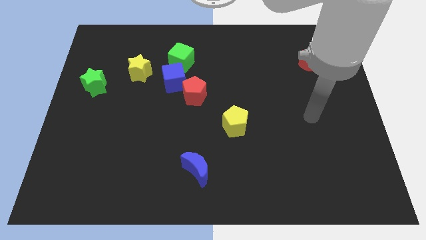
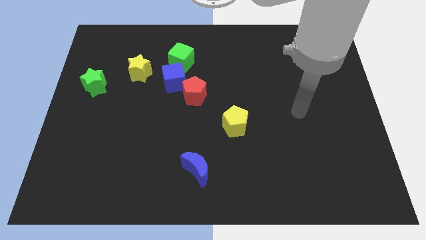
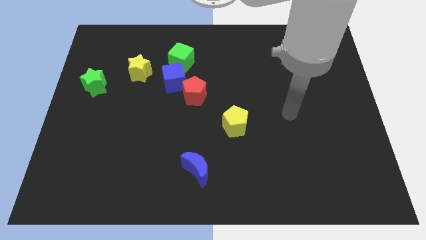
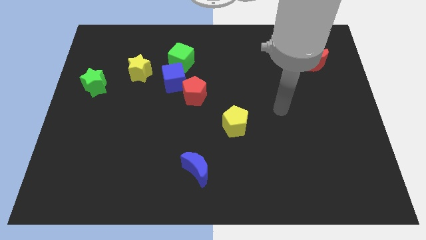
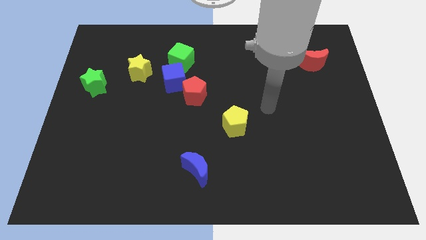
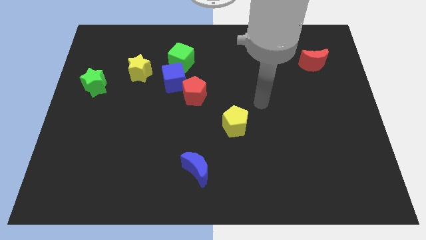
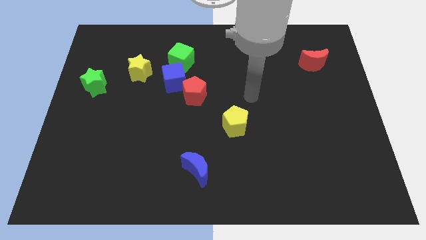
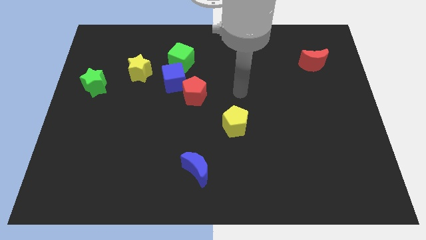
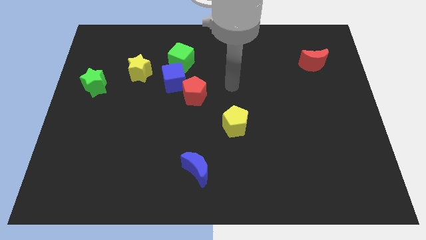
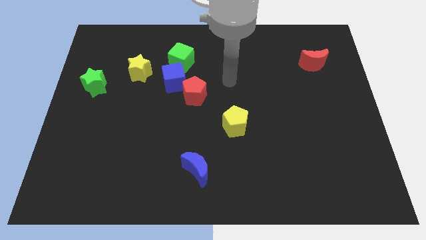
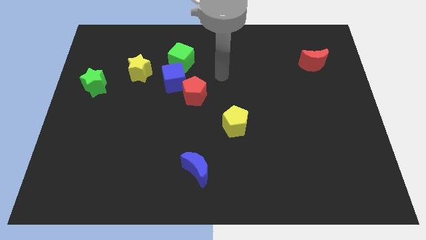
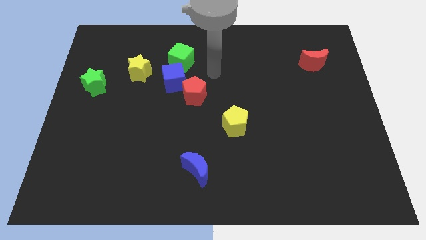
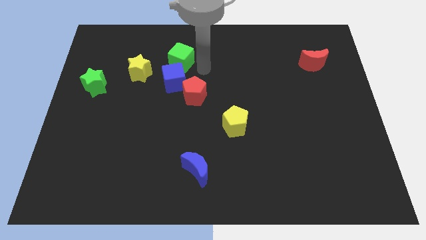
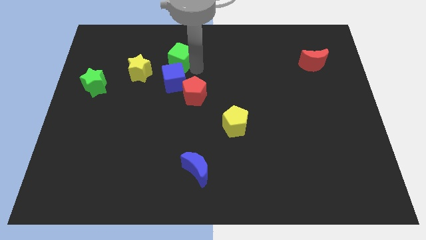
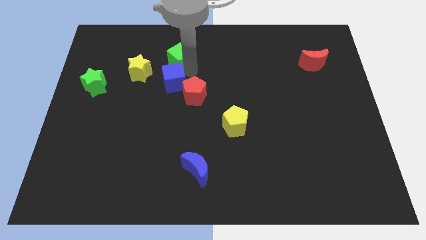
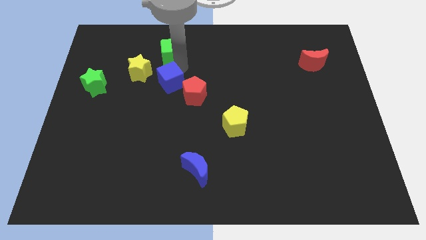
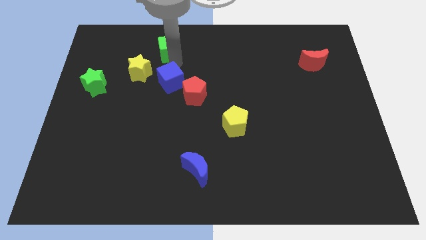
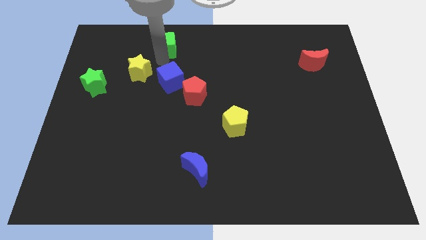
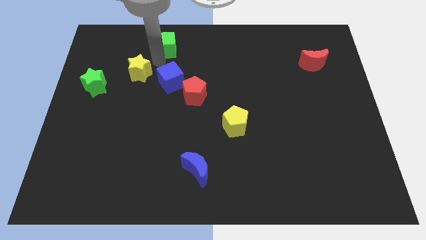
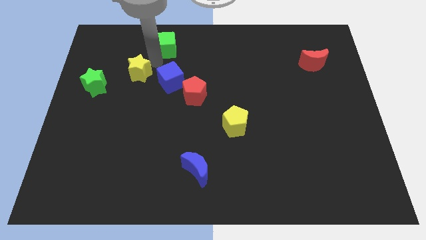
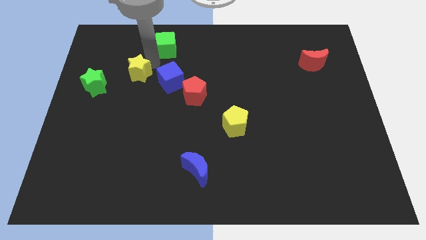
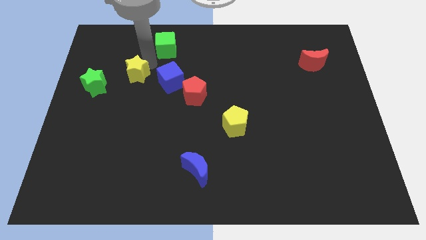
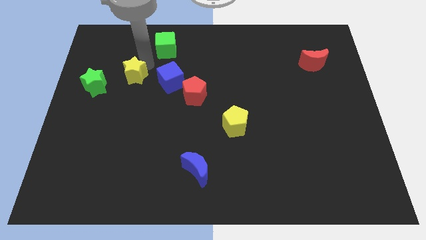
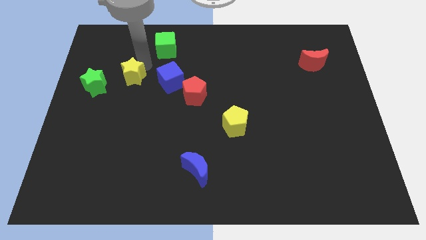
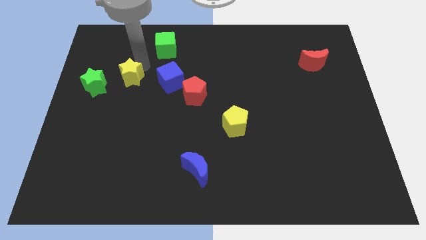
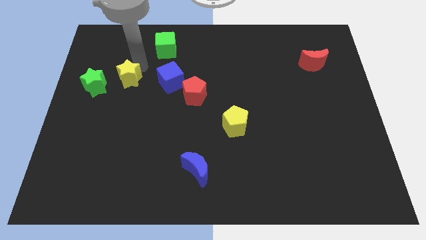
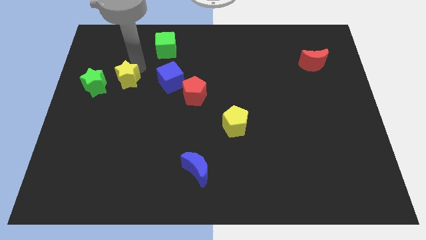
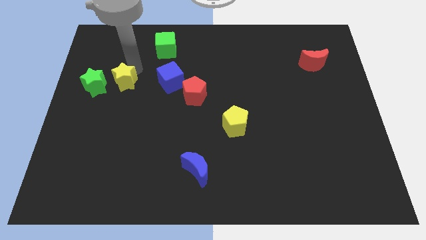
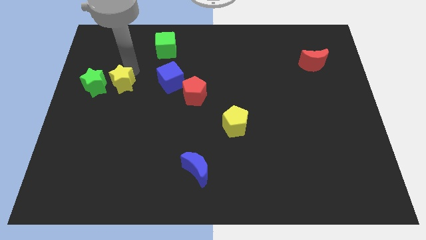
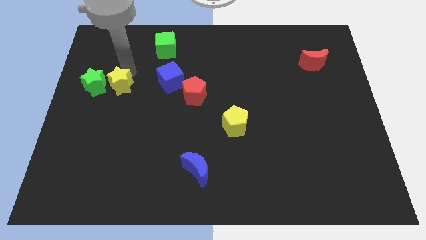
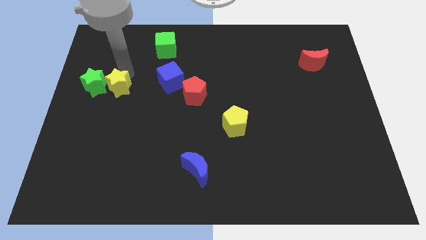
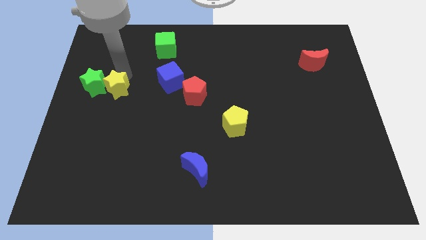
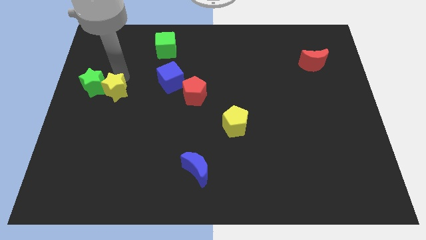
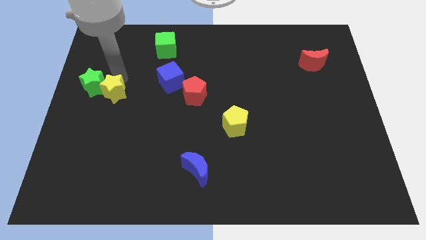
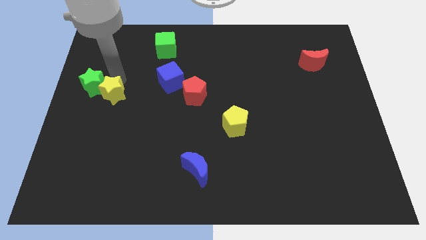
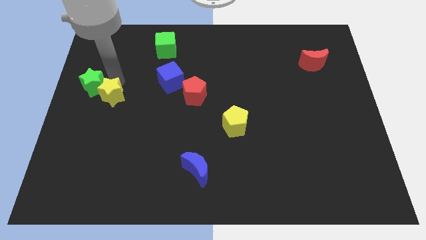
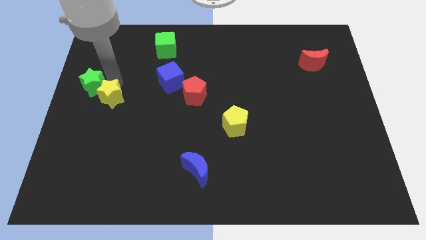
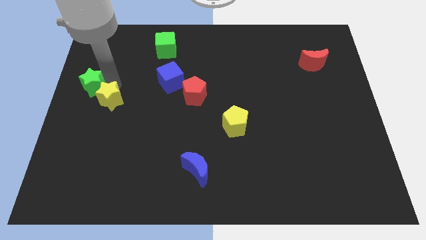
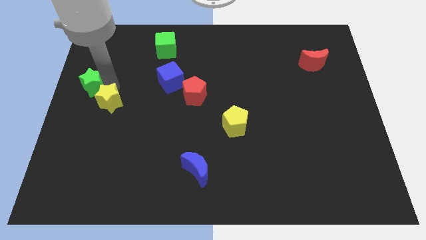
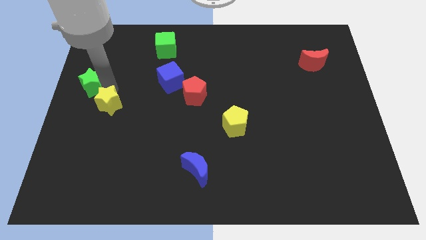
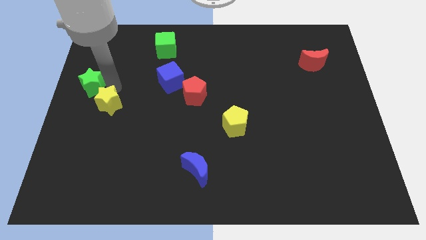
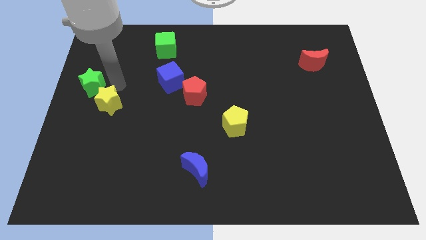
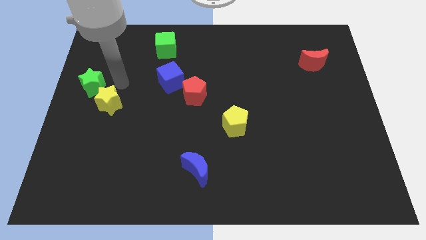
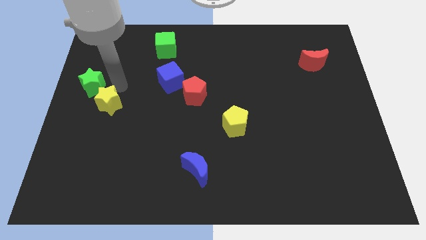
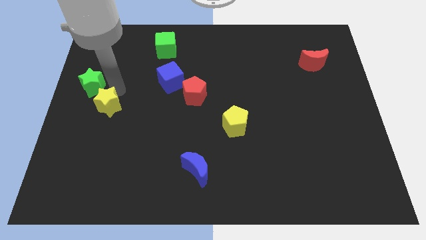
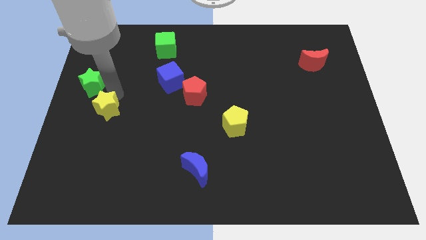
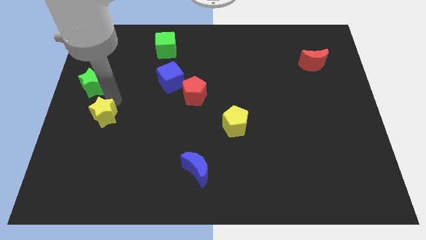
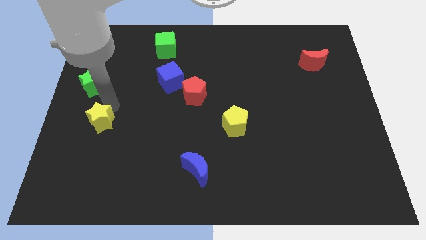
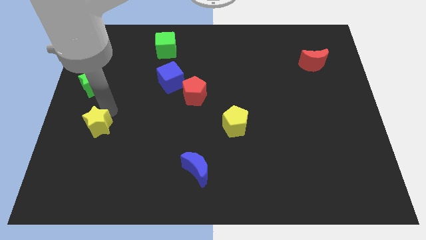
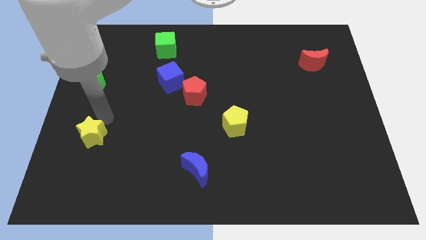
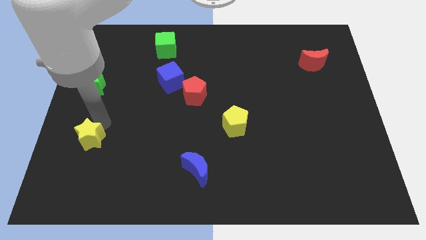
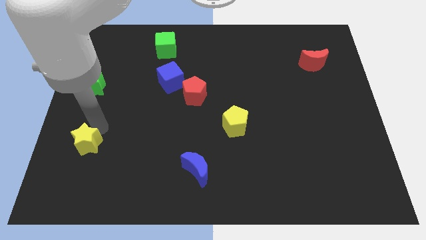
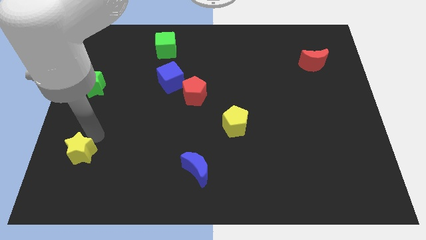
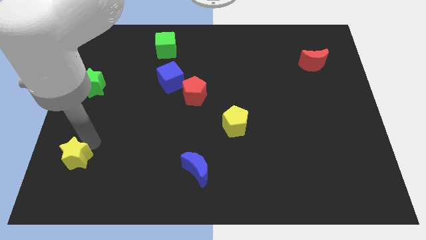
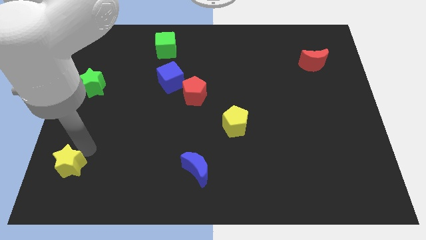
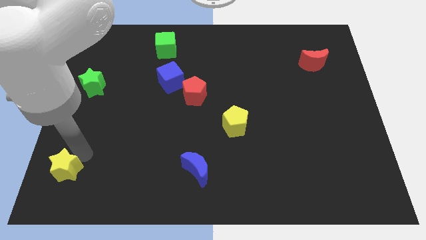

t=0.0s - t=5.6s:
put the yellow star to the bottom left corner
